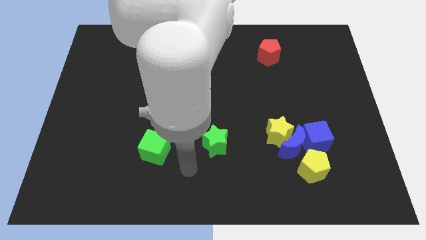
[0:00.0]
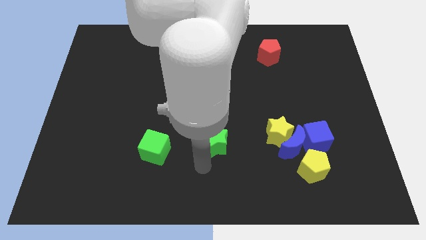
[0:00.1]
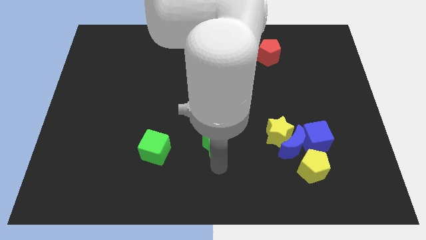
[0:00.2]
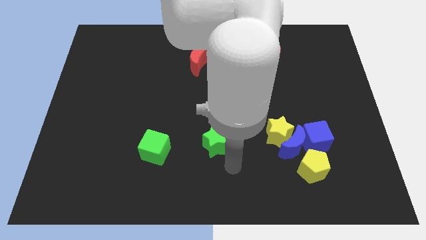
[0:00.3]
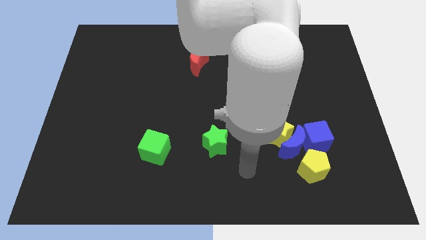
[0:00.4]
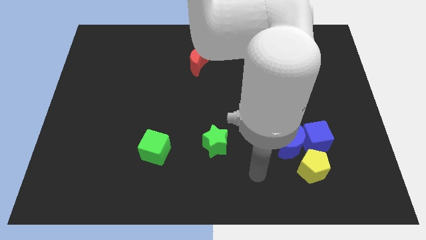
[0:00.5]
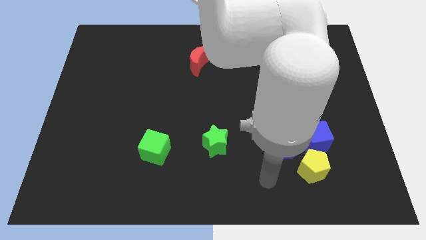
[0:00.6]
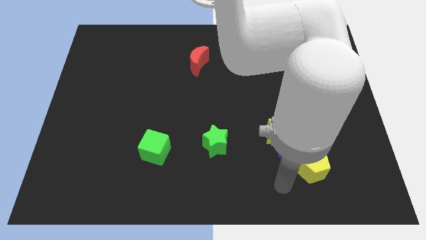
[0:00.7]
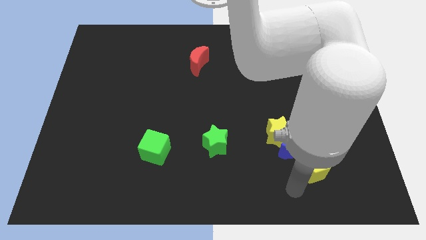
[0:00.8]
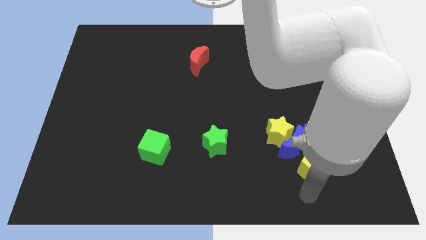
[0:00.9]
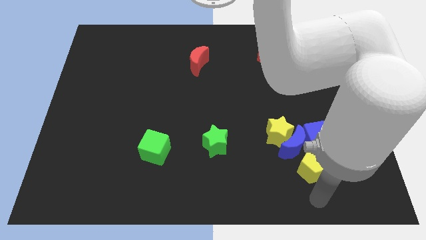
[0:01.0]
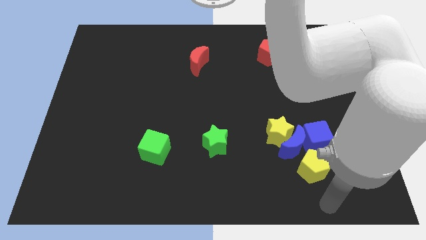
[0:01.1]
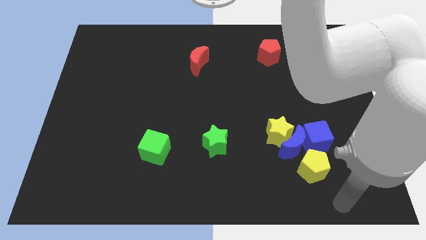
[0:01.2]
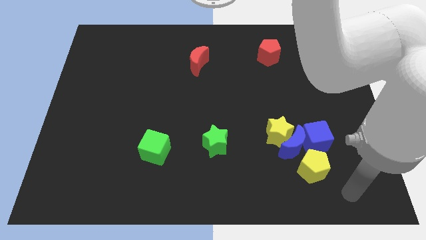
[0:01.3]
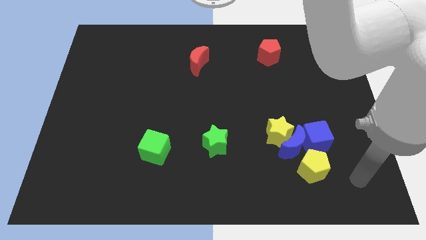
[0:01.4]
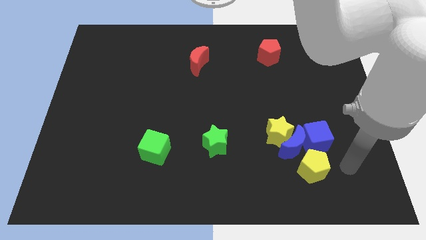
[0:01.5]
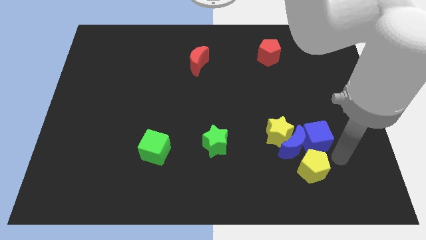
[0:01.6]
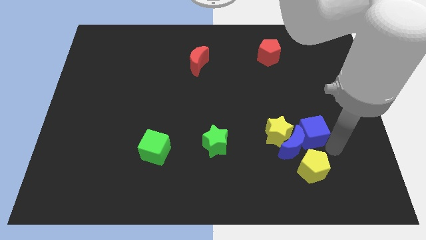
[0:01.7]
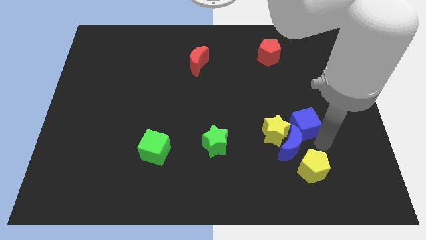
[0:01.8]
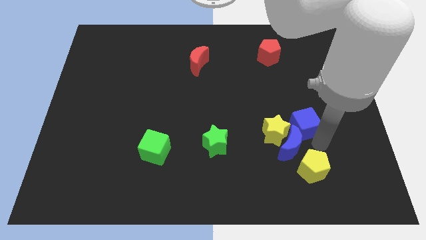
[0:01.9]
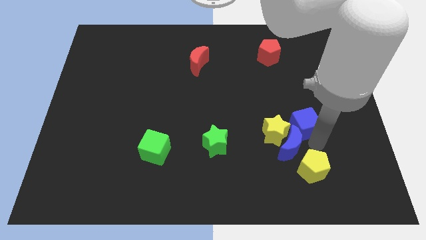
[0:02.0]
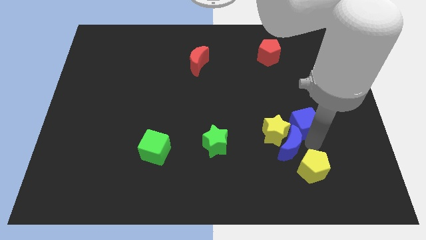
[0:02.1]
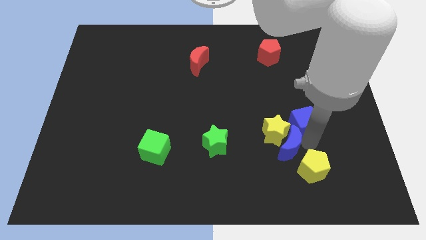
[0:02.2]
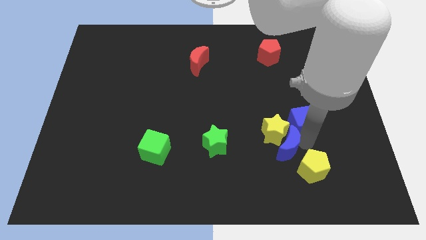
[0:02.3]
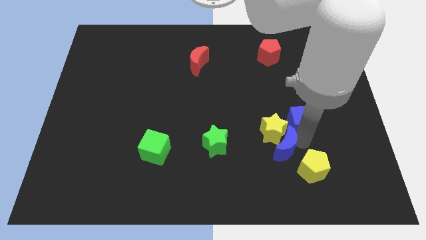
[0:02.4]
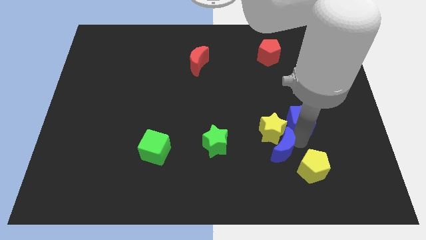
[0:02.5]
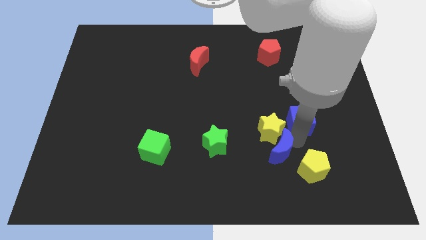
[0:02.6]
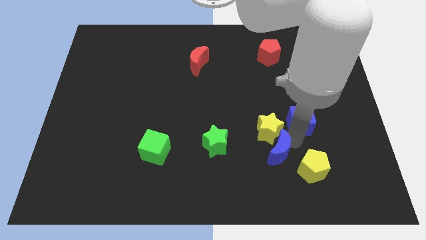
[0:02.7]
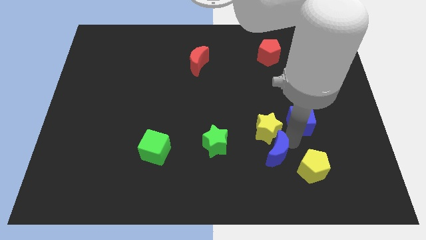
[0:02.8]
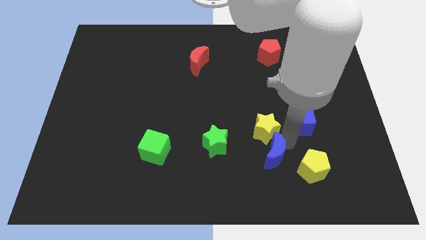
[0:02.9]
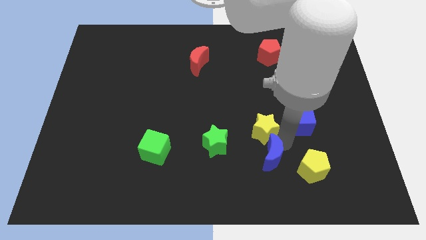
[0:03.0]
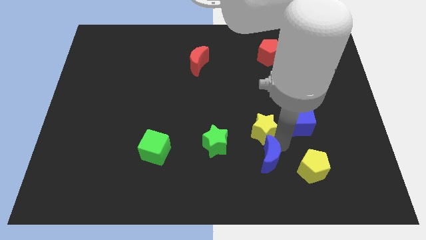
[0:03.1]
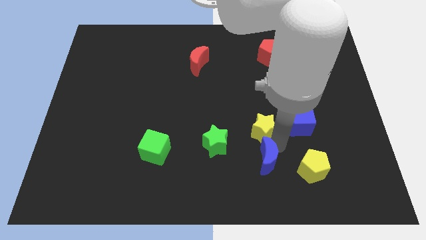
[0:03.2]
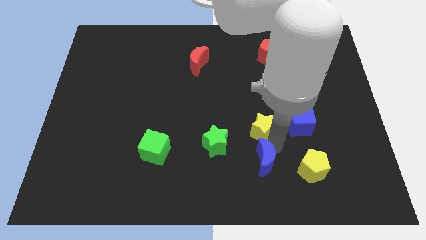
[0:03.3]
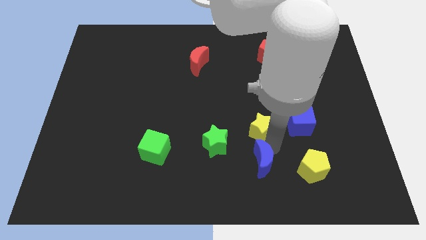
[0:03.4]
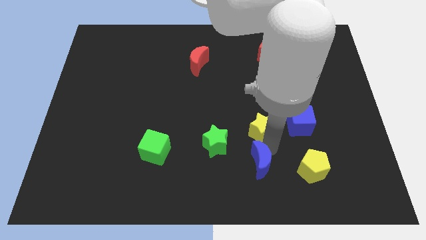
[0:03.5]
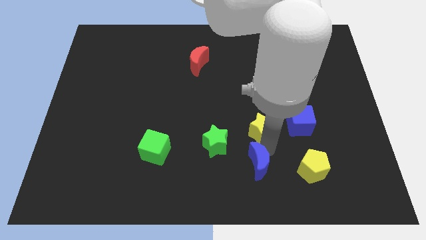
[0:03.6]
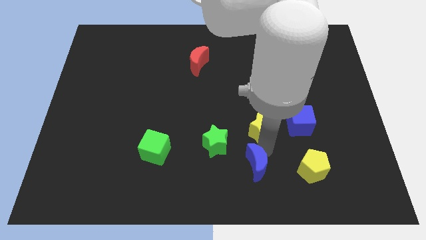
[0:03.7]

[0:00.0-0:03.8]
pull the blue moon apart from the group of blocks

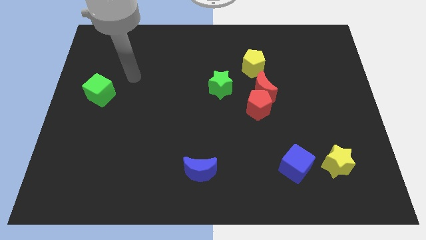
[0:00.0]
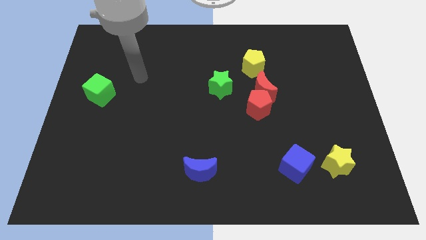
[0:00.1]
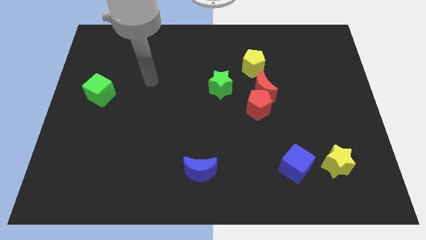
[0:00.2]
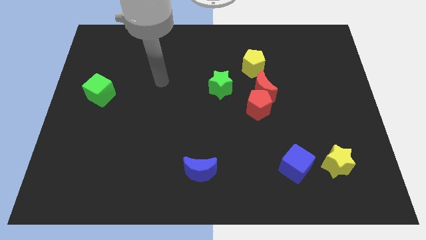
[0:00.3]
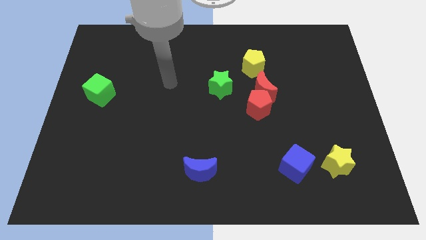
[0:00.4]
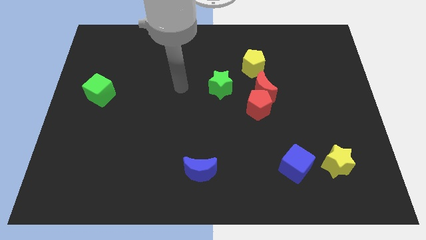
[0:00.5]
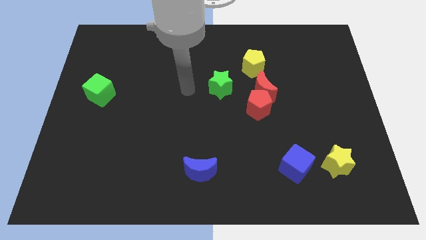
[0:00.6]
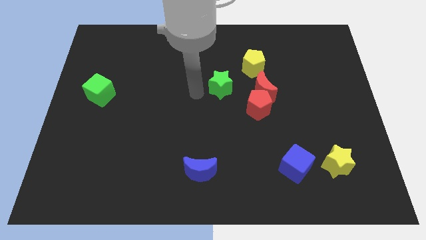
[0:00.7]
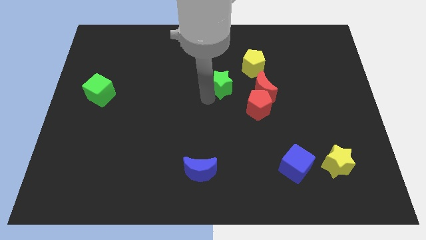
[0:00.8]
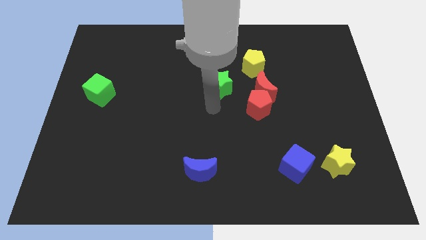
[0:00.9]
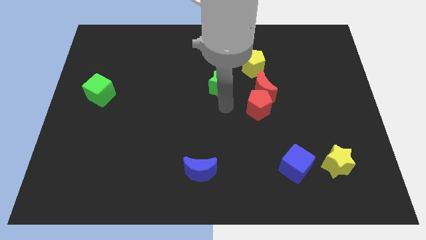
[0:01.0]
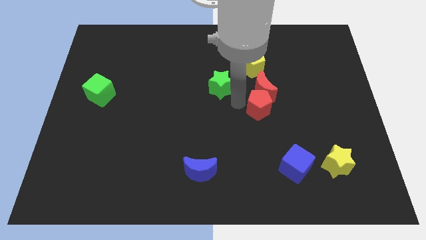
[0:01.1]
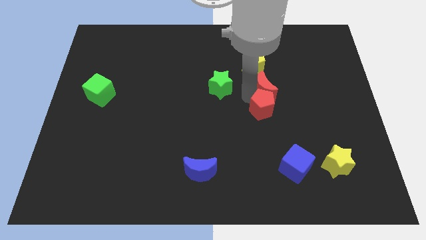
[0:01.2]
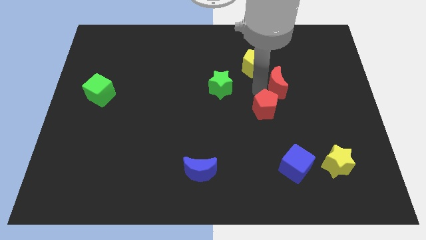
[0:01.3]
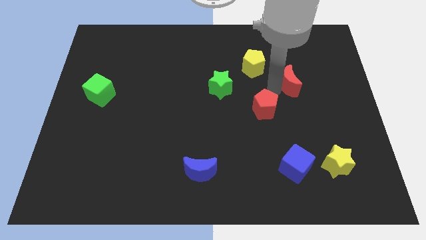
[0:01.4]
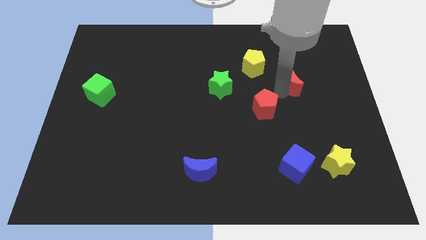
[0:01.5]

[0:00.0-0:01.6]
separate the red pentagon from the red moon

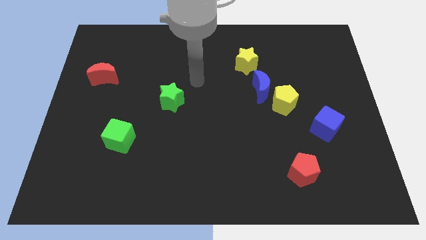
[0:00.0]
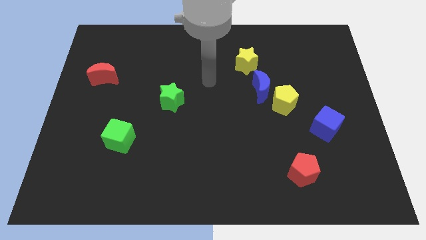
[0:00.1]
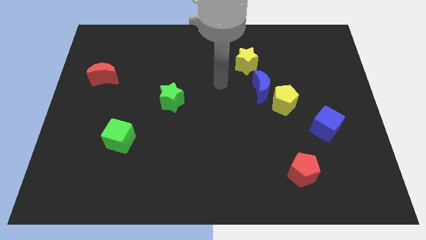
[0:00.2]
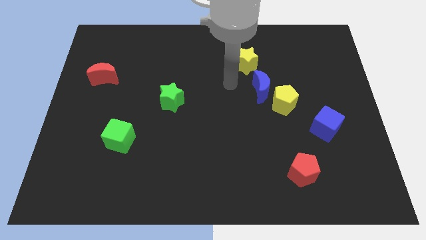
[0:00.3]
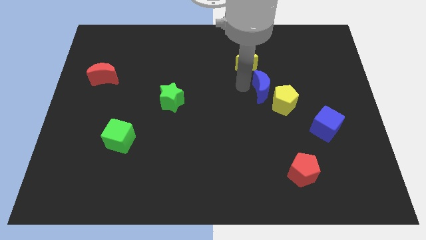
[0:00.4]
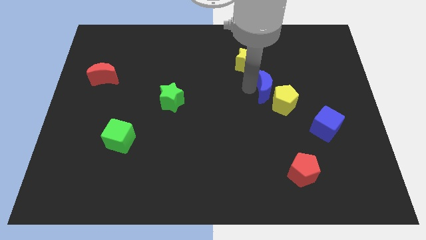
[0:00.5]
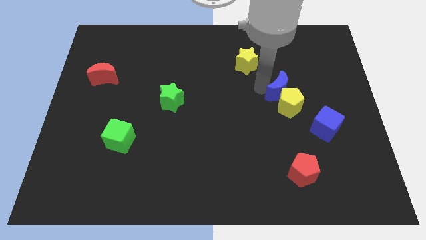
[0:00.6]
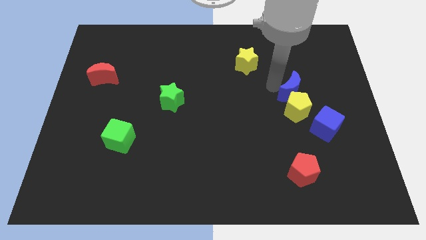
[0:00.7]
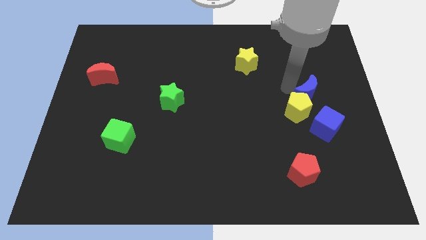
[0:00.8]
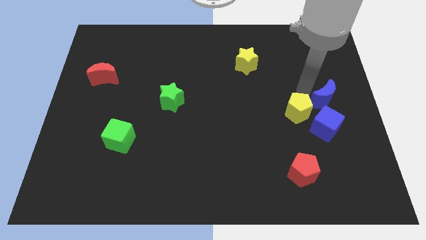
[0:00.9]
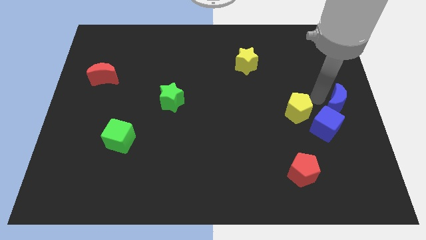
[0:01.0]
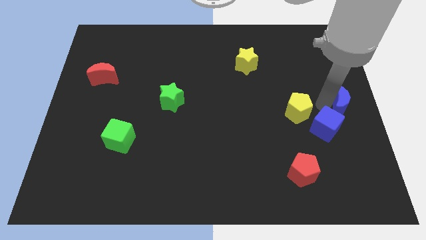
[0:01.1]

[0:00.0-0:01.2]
move the yellow pentagon away from the blue moon

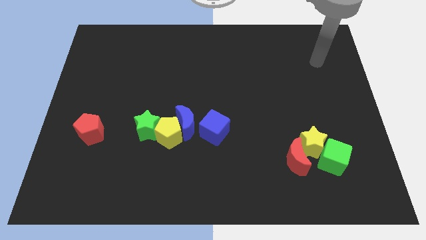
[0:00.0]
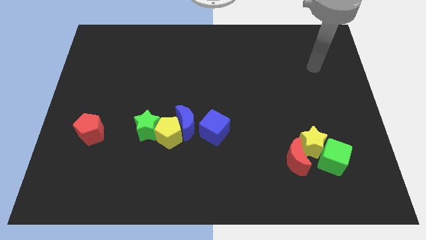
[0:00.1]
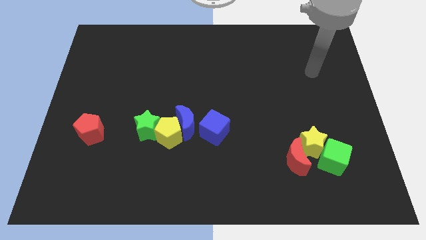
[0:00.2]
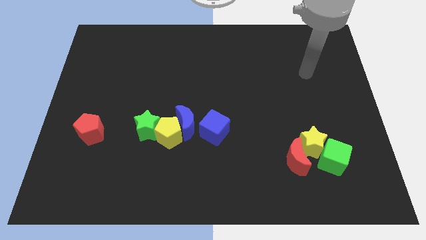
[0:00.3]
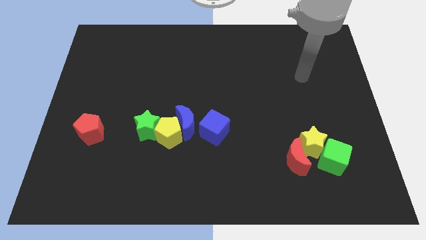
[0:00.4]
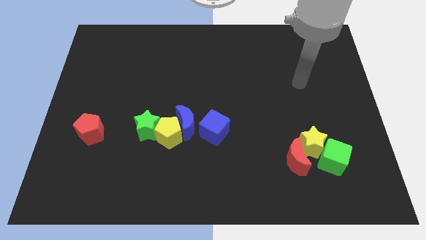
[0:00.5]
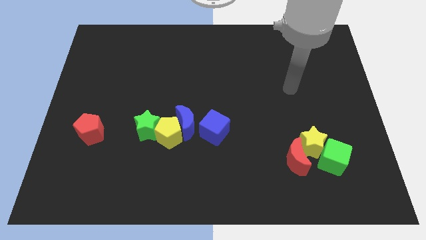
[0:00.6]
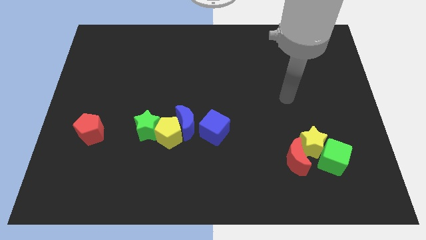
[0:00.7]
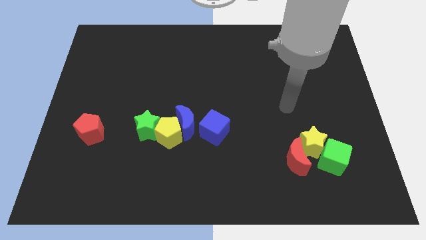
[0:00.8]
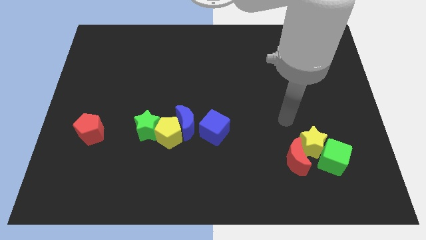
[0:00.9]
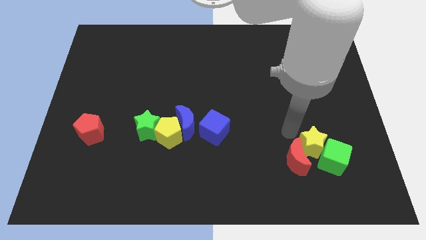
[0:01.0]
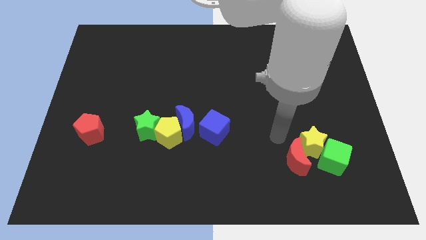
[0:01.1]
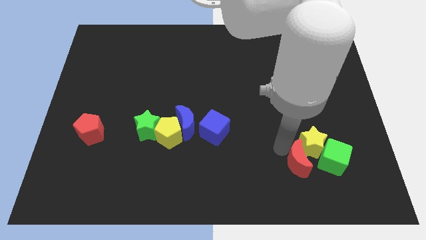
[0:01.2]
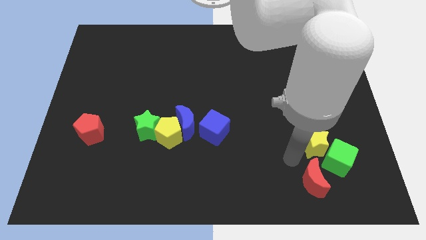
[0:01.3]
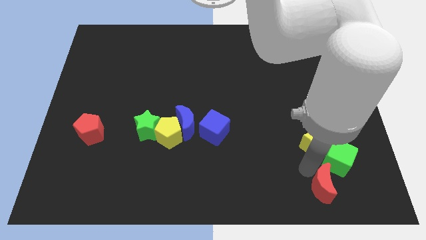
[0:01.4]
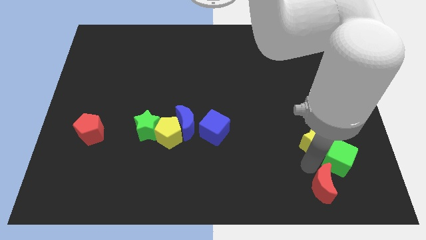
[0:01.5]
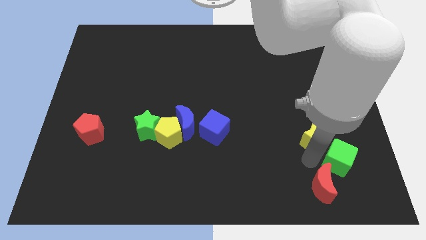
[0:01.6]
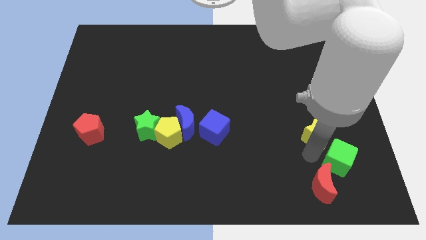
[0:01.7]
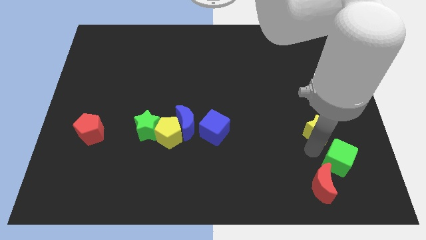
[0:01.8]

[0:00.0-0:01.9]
separate the yellow star from the red moon and green cube

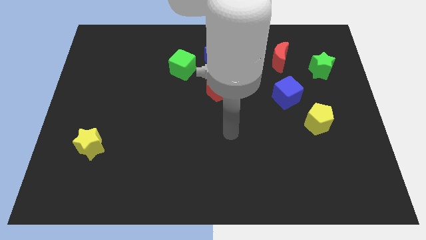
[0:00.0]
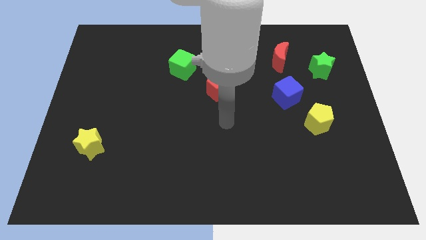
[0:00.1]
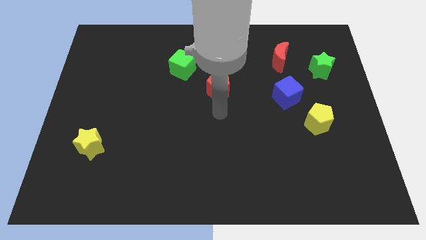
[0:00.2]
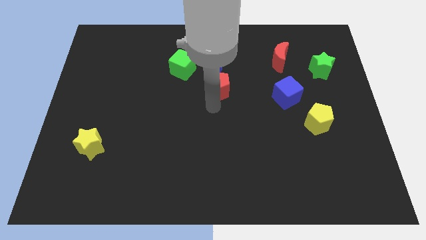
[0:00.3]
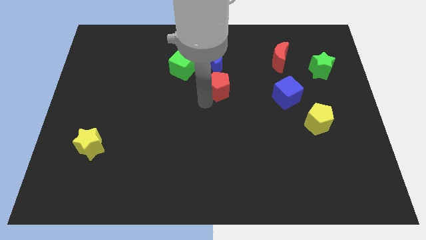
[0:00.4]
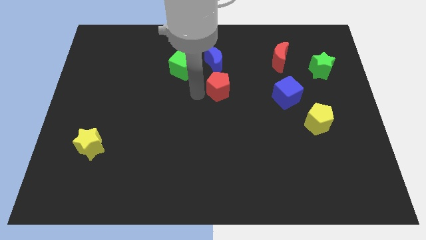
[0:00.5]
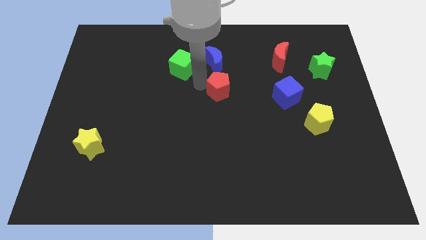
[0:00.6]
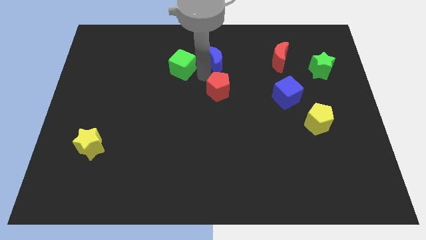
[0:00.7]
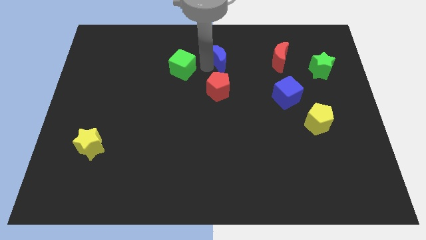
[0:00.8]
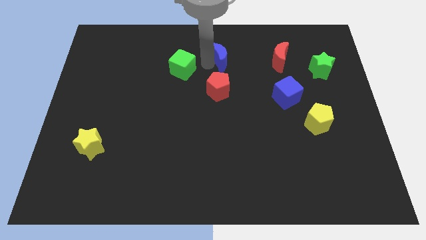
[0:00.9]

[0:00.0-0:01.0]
move the green cube away from the blue moon
